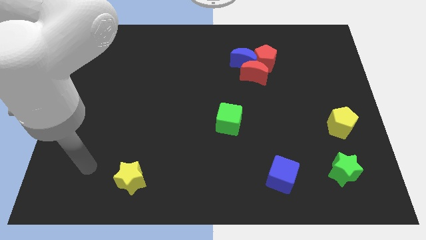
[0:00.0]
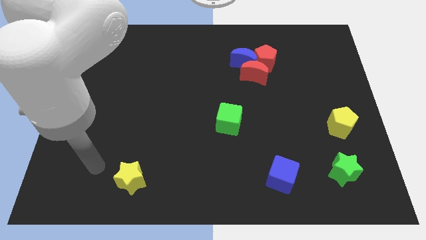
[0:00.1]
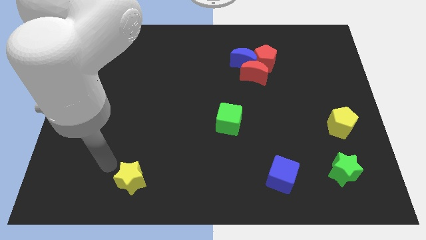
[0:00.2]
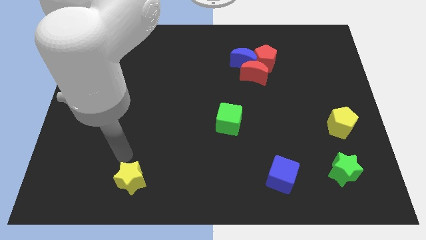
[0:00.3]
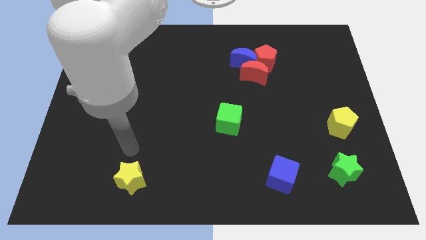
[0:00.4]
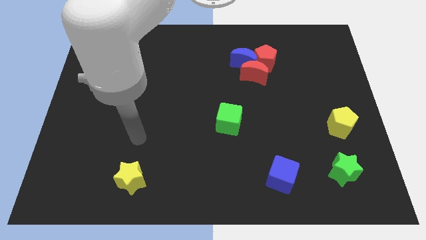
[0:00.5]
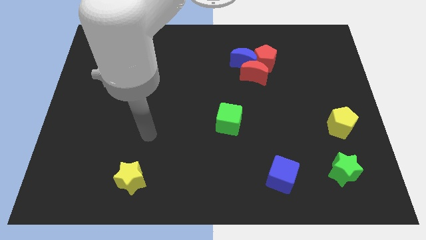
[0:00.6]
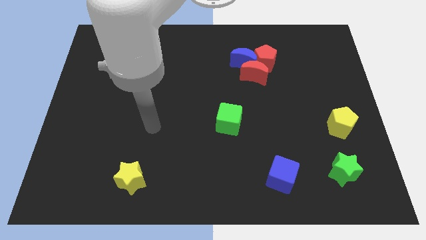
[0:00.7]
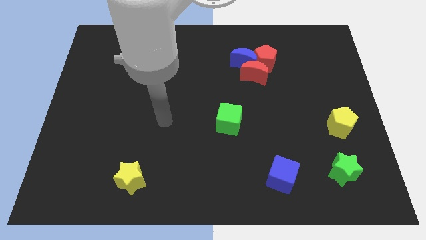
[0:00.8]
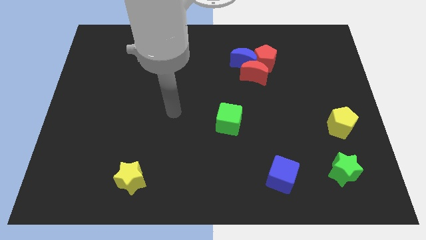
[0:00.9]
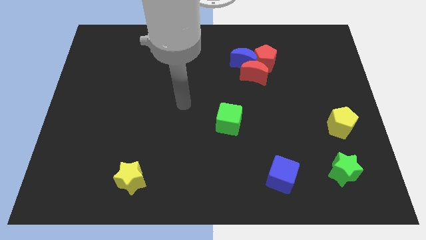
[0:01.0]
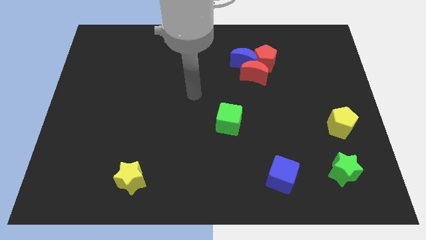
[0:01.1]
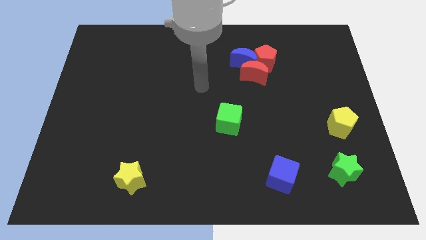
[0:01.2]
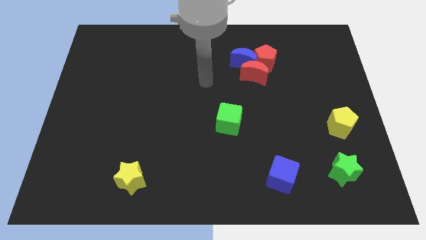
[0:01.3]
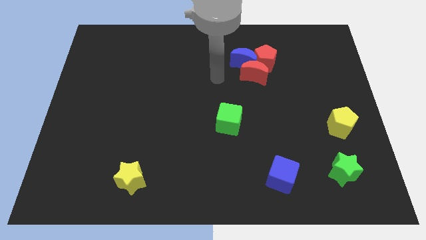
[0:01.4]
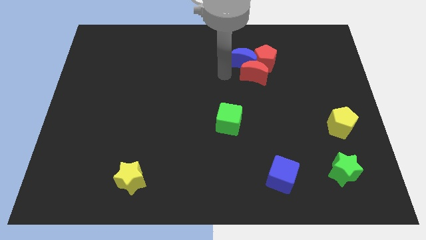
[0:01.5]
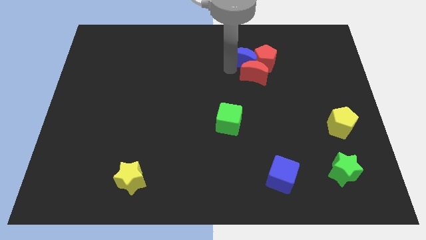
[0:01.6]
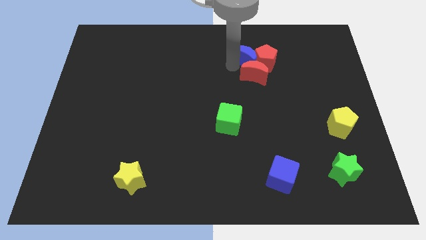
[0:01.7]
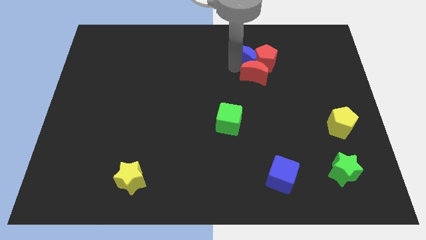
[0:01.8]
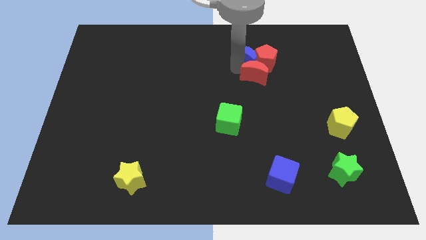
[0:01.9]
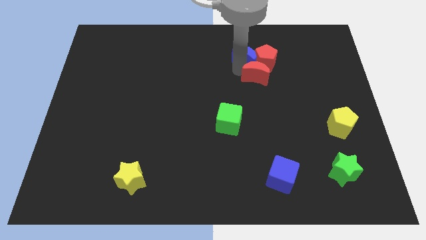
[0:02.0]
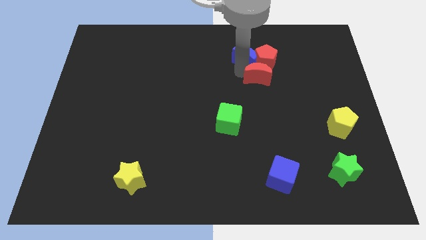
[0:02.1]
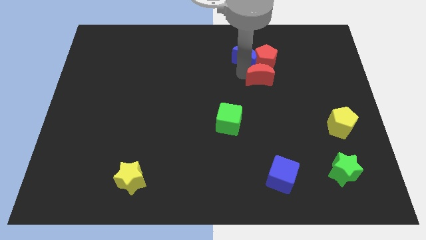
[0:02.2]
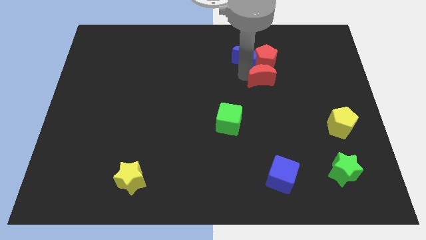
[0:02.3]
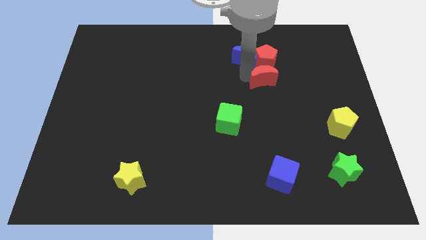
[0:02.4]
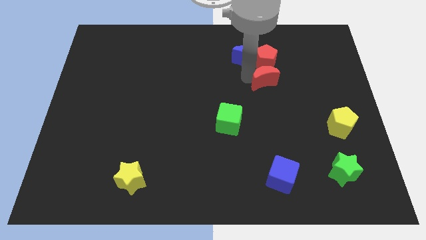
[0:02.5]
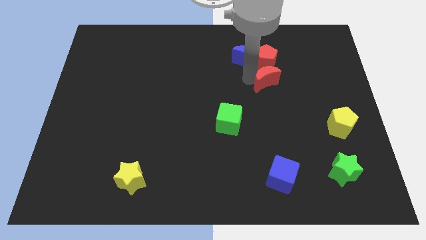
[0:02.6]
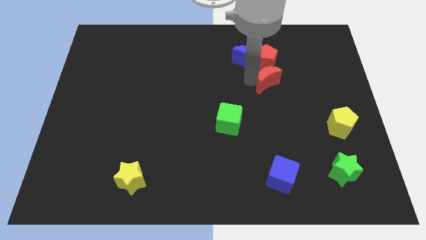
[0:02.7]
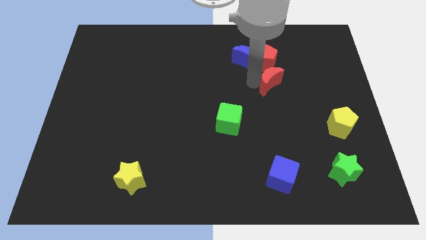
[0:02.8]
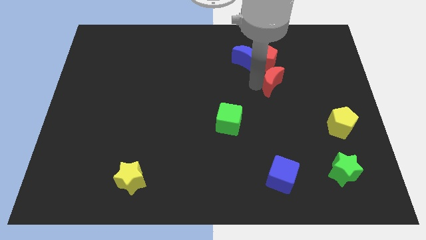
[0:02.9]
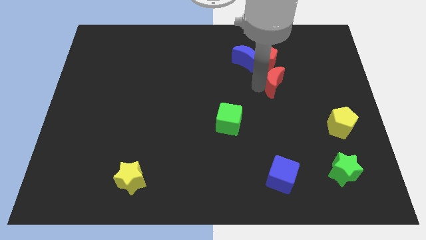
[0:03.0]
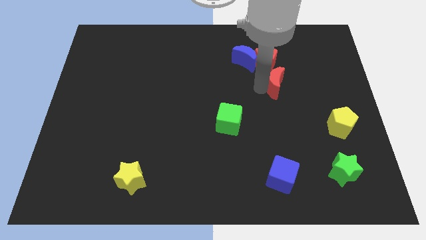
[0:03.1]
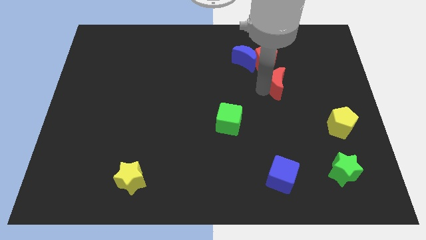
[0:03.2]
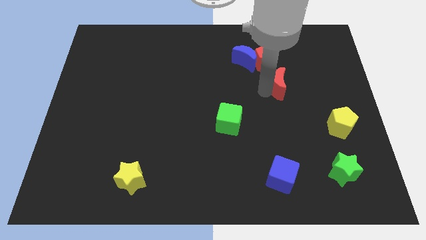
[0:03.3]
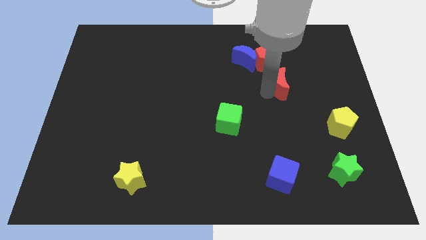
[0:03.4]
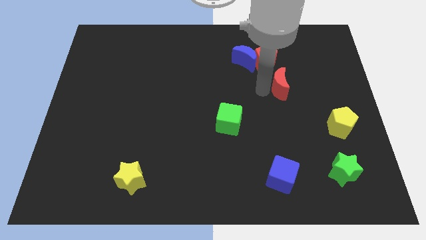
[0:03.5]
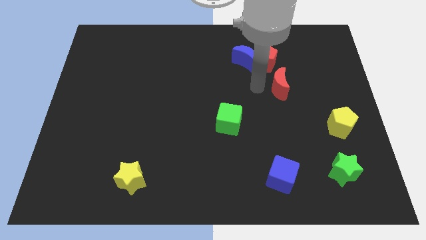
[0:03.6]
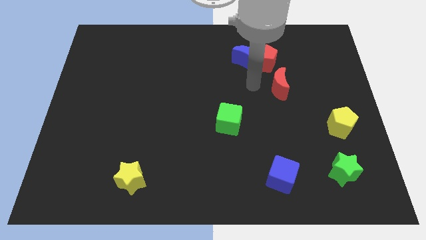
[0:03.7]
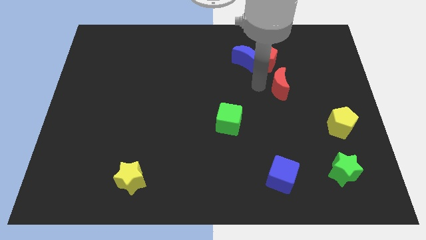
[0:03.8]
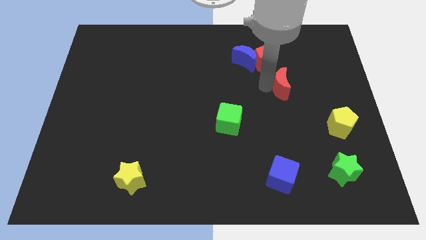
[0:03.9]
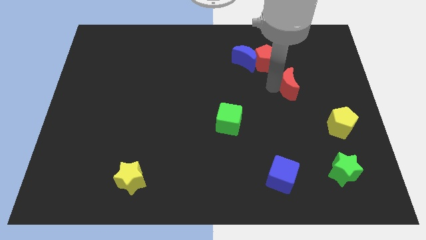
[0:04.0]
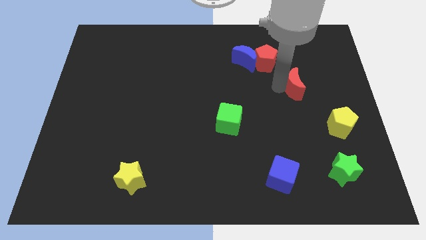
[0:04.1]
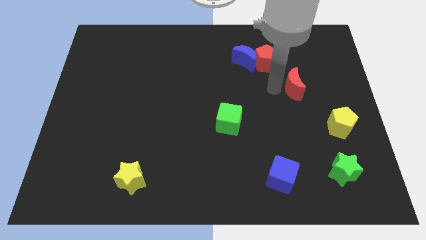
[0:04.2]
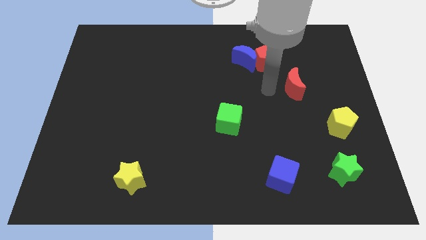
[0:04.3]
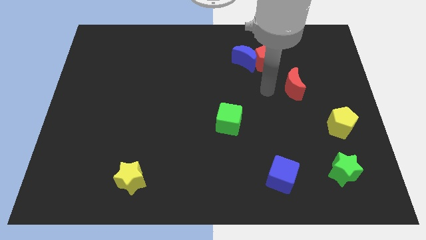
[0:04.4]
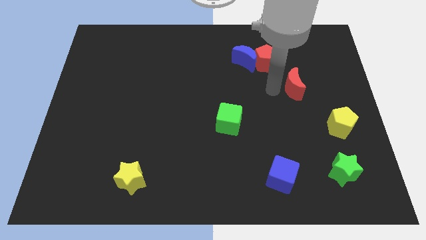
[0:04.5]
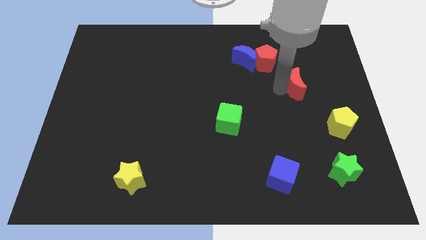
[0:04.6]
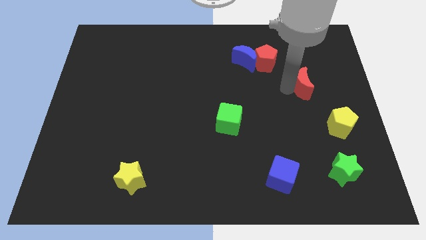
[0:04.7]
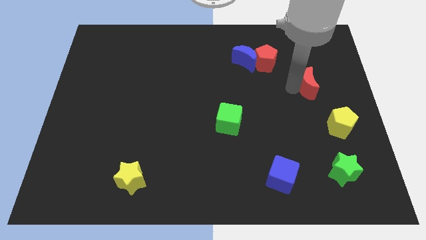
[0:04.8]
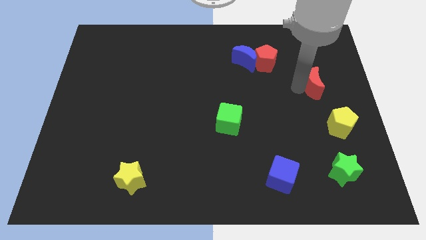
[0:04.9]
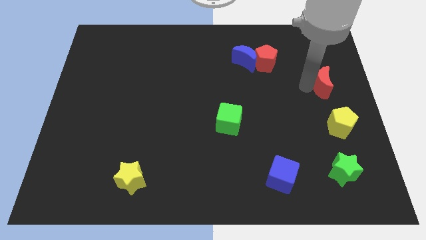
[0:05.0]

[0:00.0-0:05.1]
slide the red moon to the right side of the board

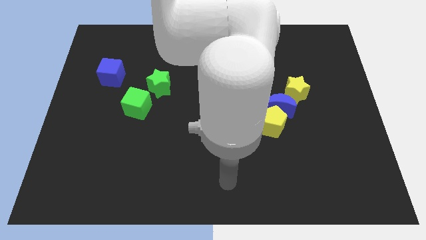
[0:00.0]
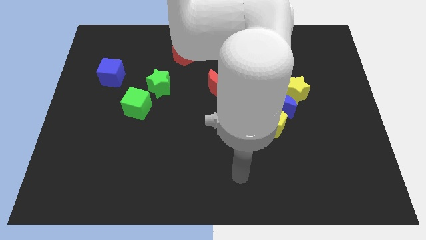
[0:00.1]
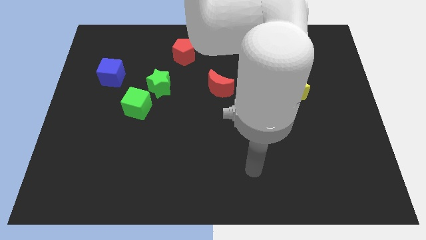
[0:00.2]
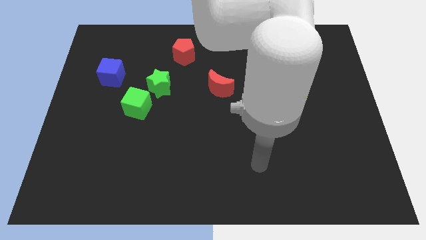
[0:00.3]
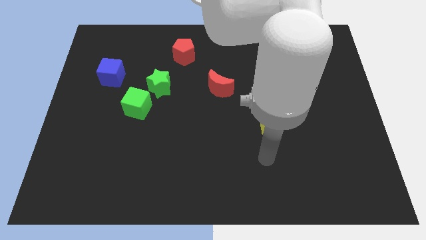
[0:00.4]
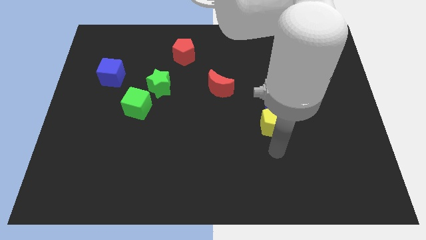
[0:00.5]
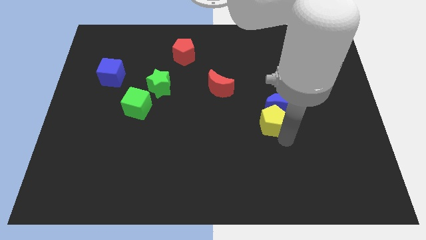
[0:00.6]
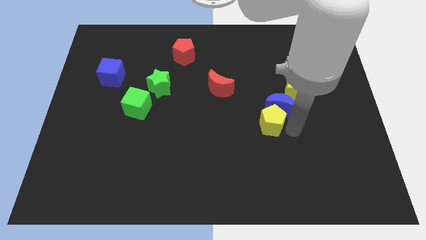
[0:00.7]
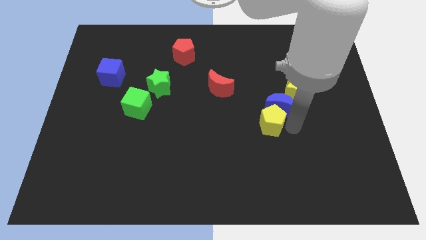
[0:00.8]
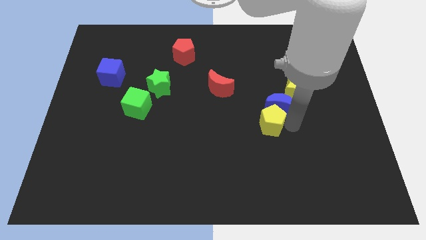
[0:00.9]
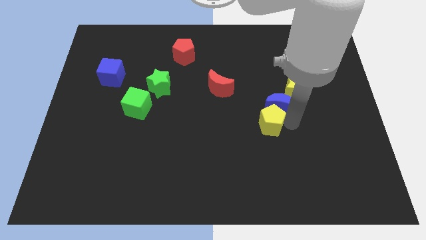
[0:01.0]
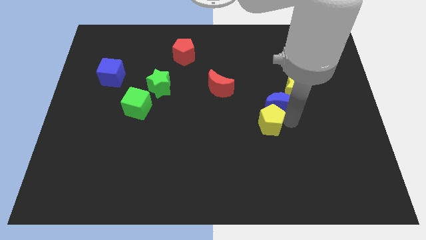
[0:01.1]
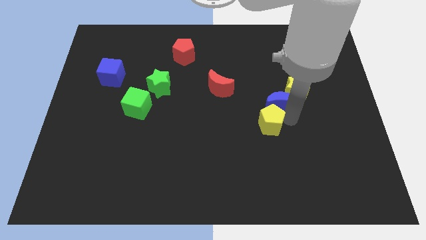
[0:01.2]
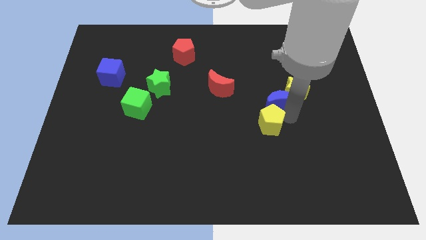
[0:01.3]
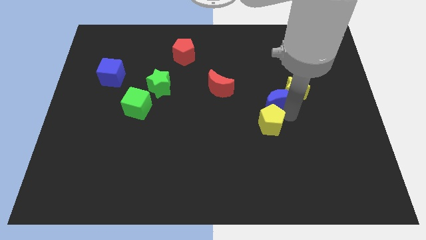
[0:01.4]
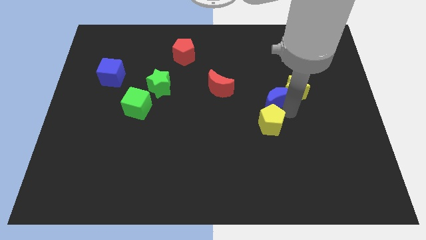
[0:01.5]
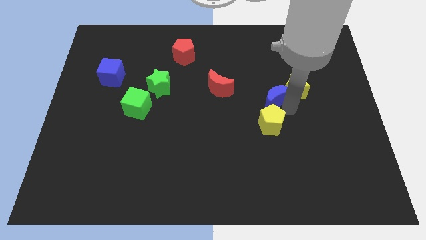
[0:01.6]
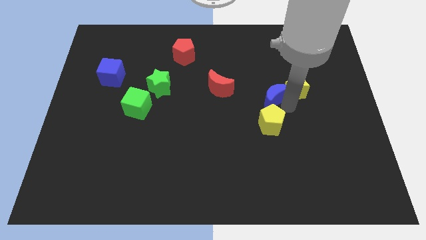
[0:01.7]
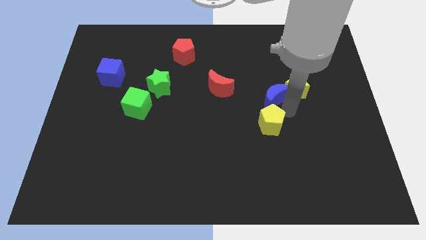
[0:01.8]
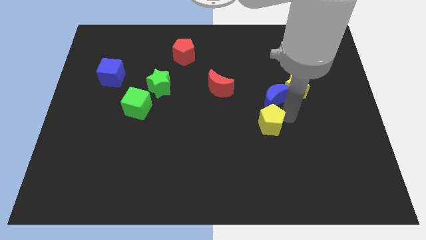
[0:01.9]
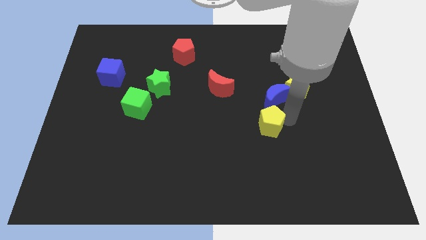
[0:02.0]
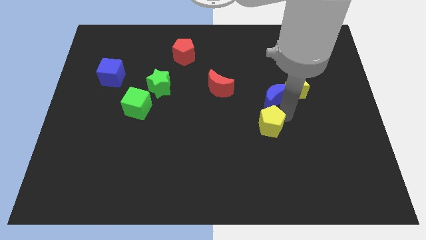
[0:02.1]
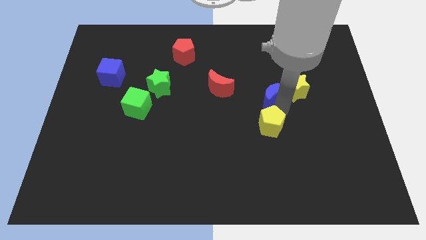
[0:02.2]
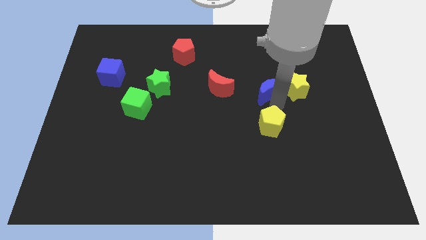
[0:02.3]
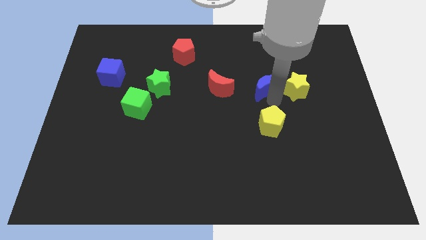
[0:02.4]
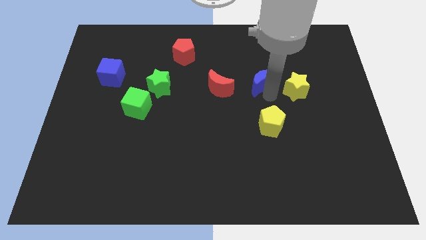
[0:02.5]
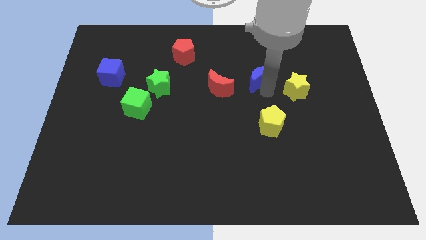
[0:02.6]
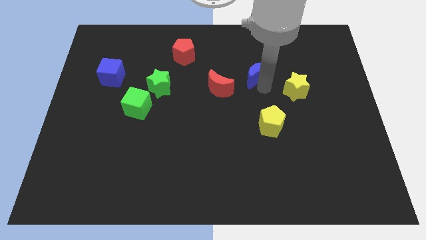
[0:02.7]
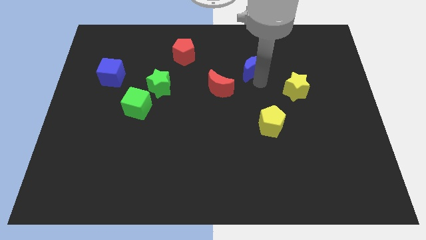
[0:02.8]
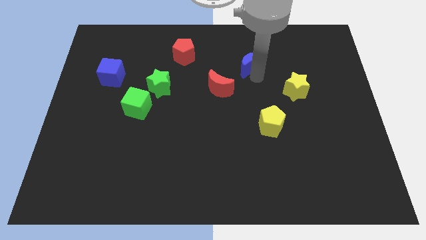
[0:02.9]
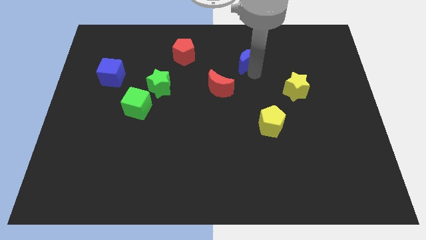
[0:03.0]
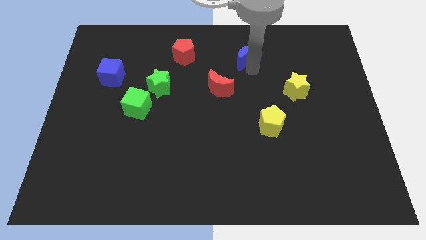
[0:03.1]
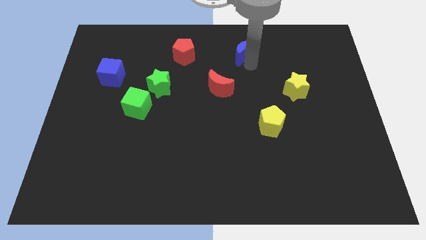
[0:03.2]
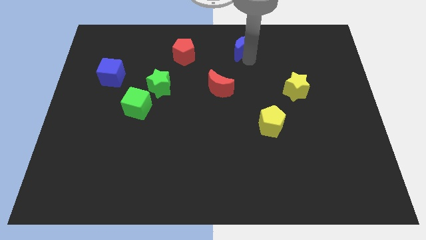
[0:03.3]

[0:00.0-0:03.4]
slide the blue moon to the top
